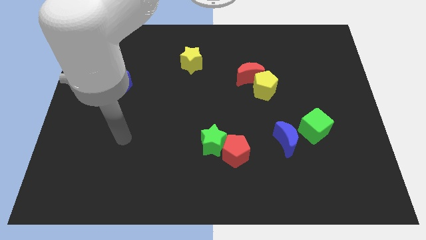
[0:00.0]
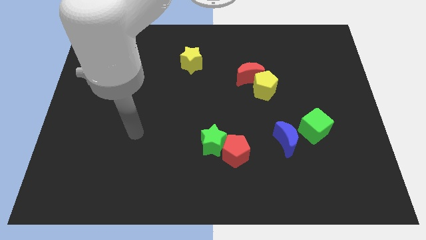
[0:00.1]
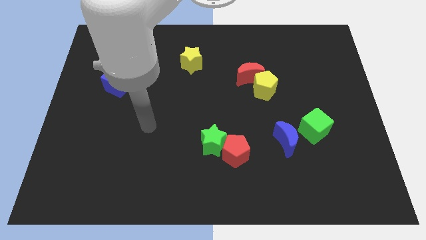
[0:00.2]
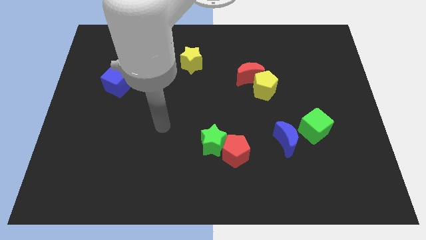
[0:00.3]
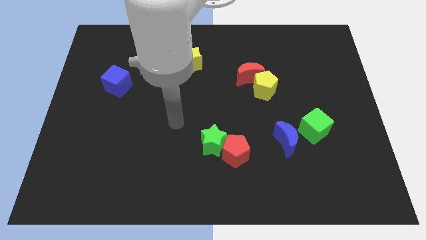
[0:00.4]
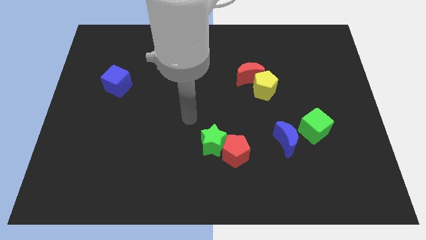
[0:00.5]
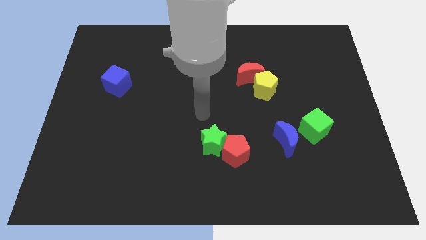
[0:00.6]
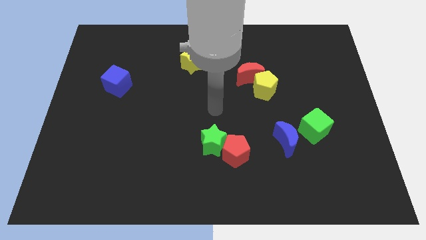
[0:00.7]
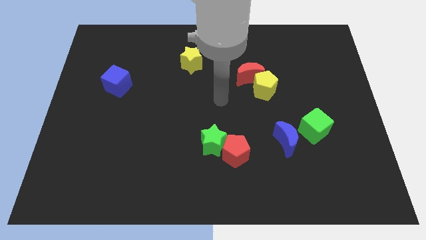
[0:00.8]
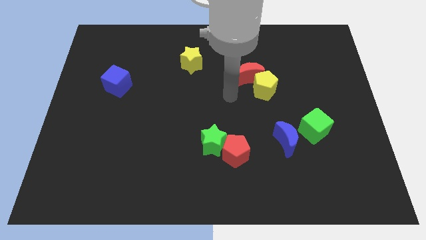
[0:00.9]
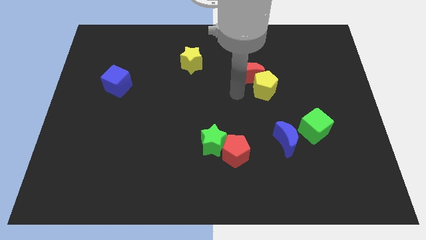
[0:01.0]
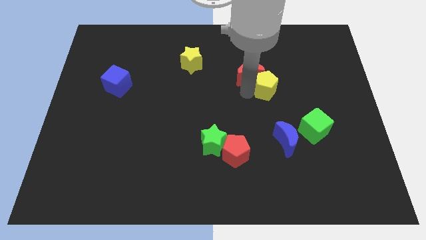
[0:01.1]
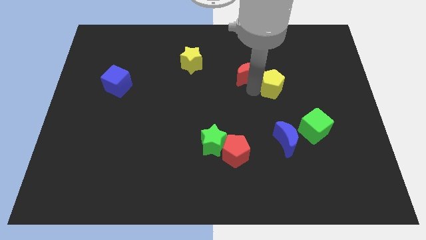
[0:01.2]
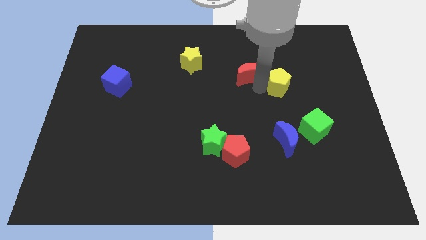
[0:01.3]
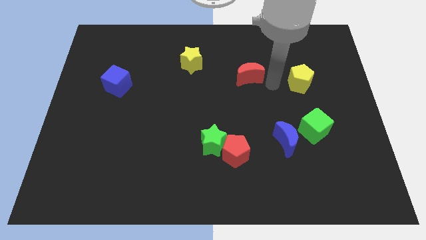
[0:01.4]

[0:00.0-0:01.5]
pull the red moon apart from the yellow pentagon

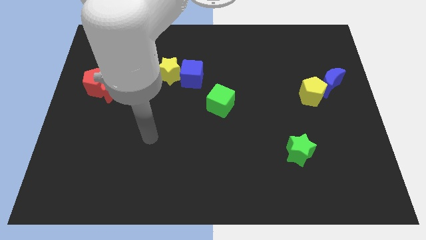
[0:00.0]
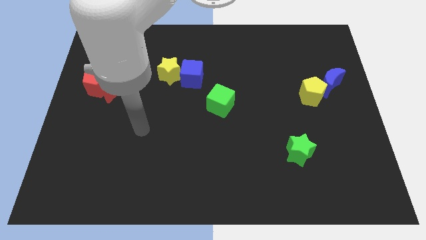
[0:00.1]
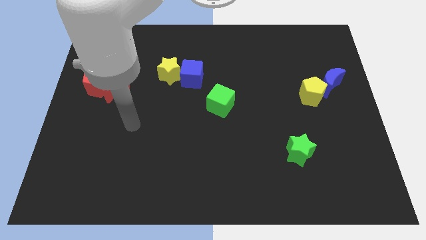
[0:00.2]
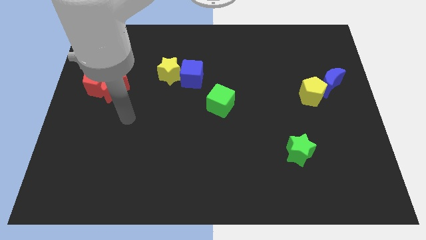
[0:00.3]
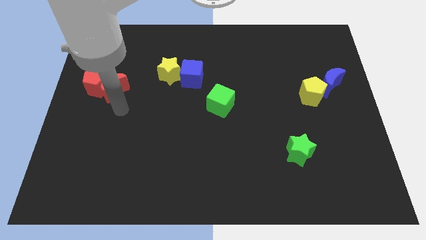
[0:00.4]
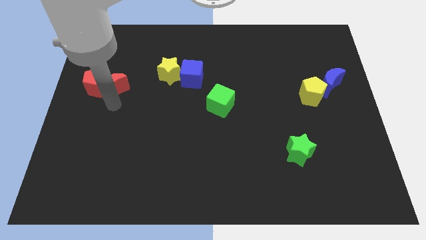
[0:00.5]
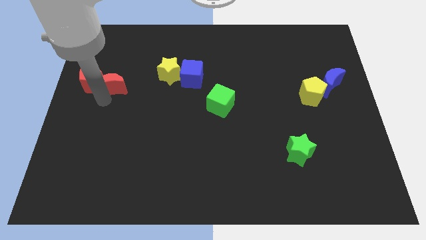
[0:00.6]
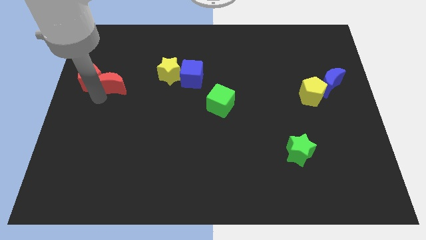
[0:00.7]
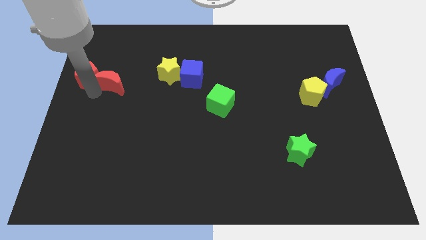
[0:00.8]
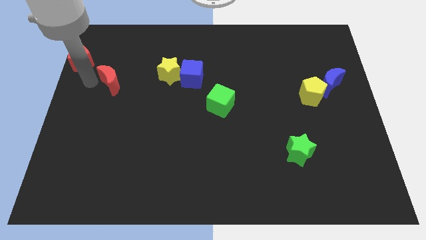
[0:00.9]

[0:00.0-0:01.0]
move the red moon away from the red pentagon

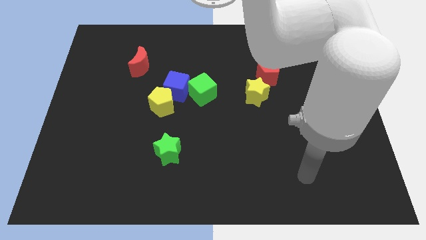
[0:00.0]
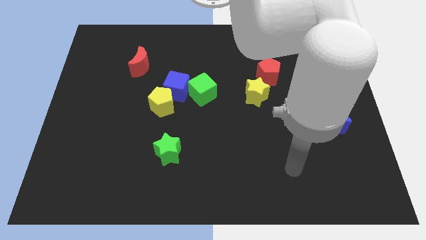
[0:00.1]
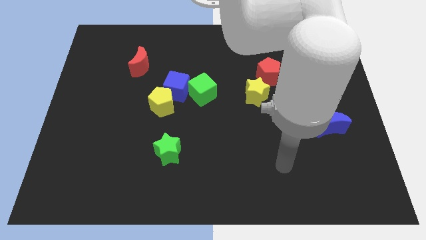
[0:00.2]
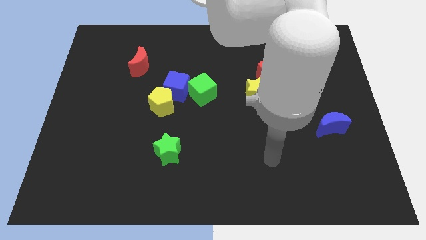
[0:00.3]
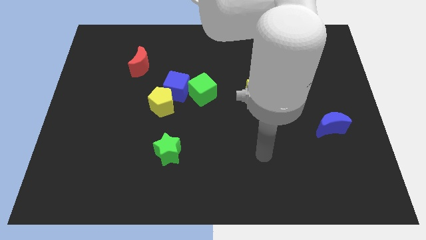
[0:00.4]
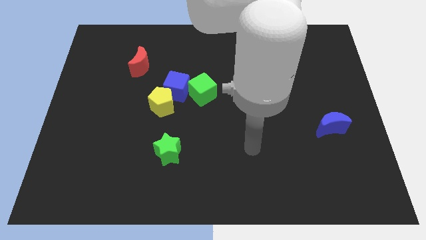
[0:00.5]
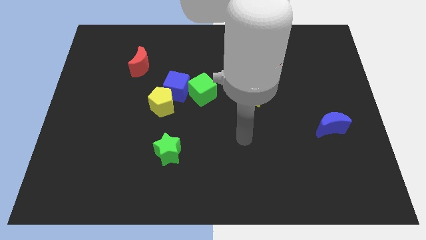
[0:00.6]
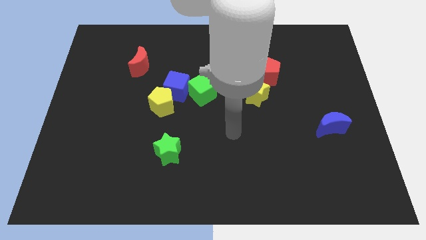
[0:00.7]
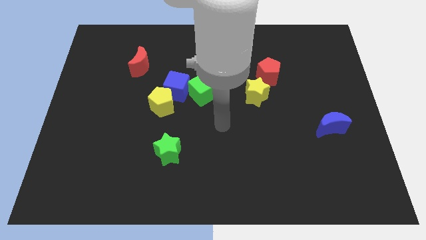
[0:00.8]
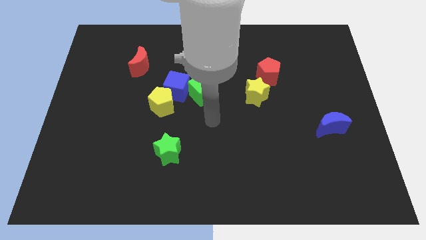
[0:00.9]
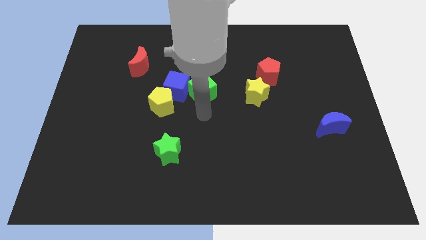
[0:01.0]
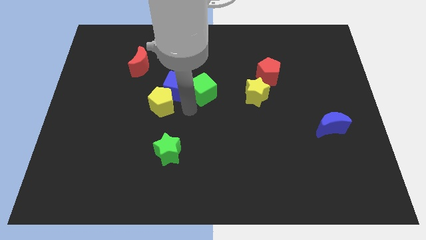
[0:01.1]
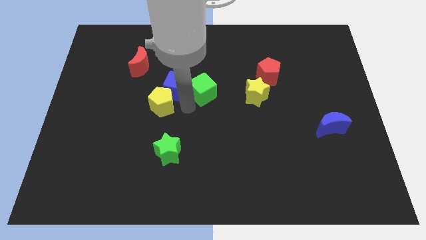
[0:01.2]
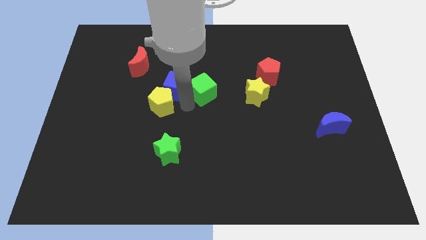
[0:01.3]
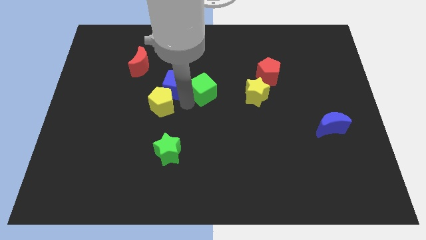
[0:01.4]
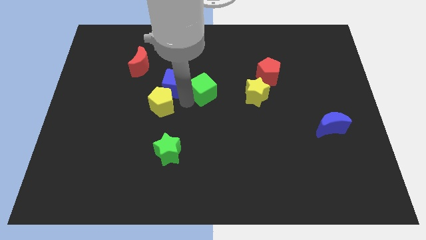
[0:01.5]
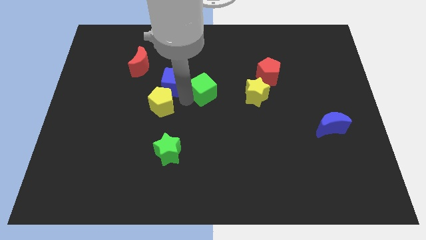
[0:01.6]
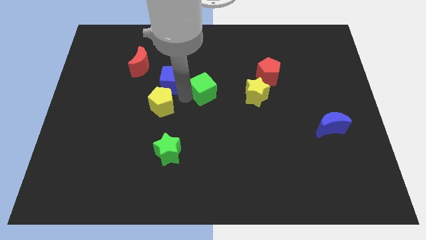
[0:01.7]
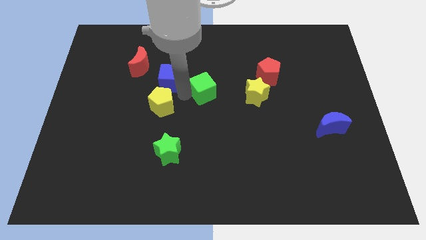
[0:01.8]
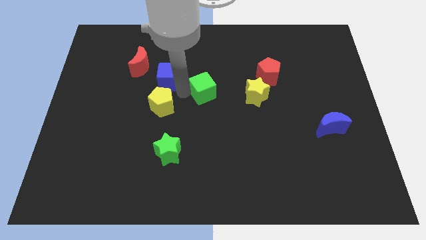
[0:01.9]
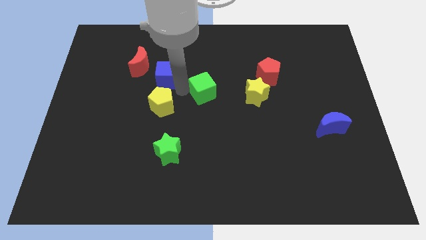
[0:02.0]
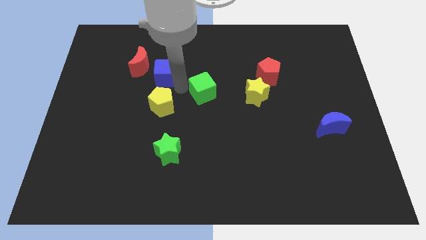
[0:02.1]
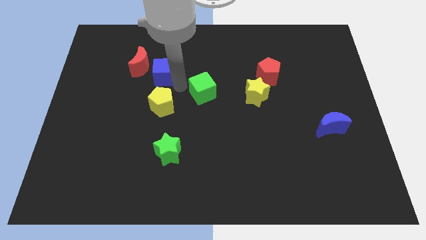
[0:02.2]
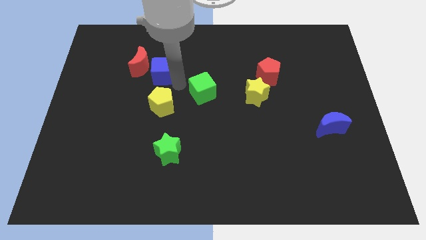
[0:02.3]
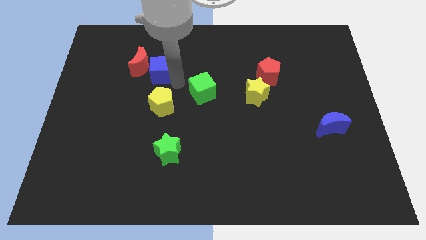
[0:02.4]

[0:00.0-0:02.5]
pull the blue cube apart from the yellow pentagon and green cube

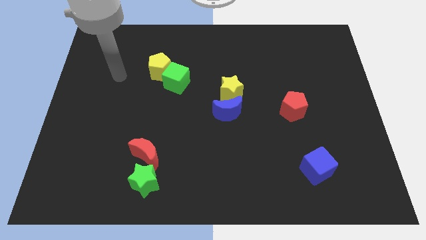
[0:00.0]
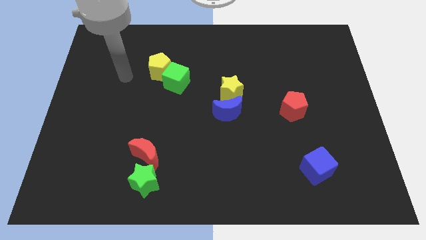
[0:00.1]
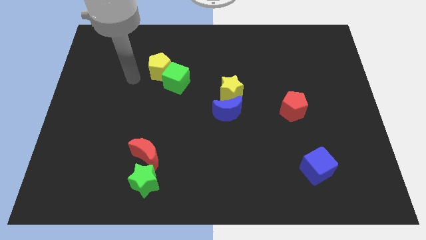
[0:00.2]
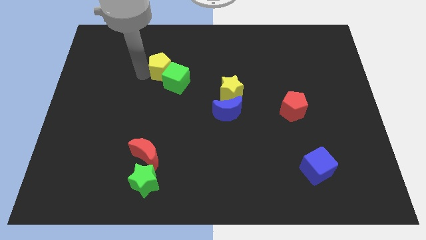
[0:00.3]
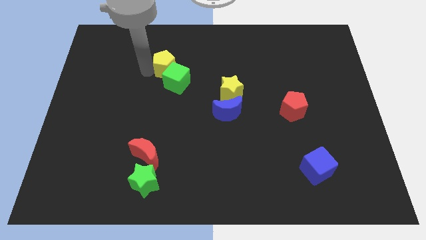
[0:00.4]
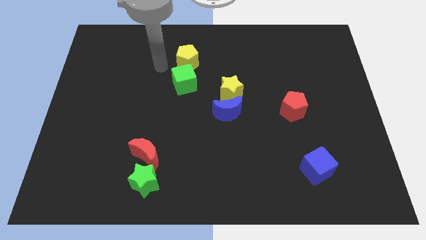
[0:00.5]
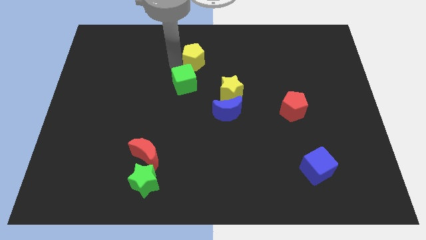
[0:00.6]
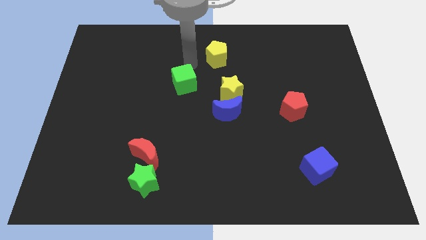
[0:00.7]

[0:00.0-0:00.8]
pull the green cube apart from the yellow pentagon

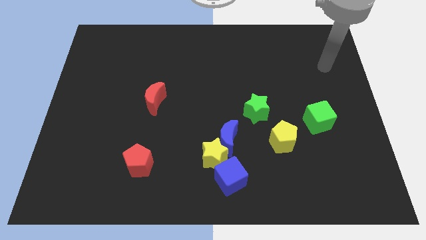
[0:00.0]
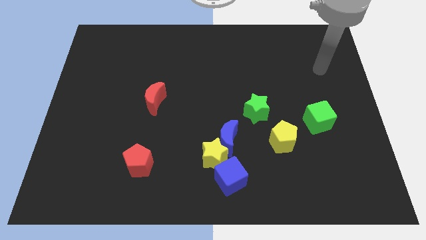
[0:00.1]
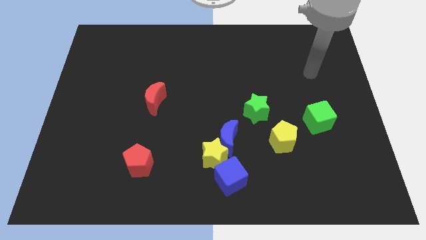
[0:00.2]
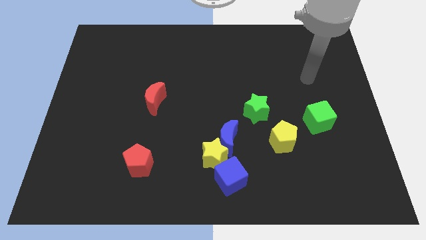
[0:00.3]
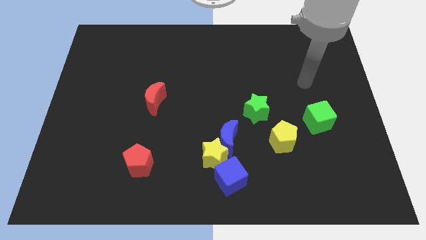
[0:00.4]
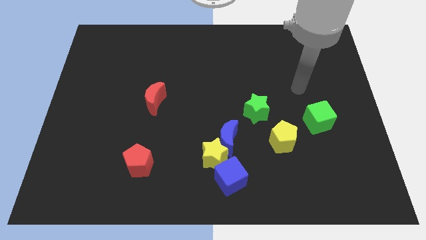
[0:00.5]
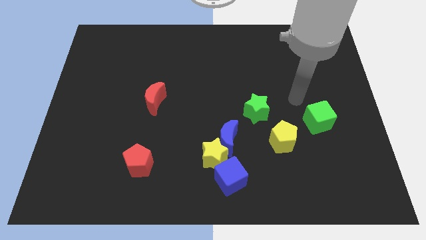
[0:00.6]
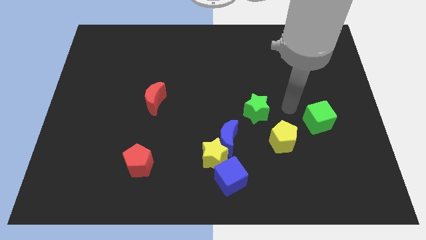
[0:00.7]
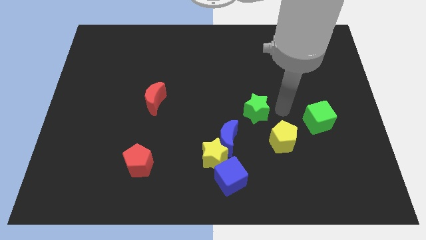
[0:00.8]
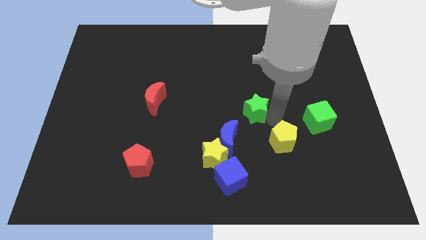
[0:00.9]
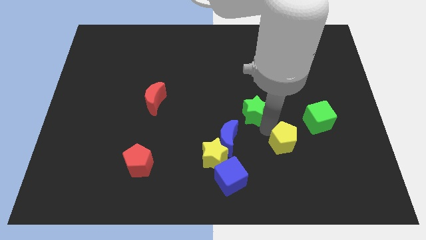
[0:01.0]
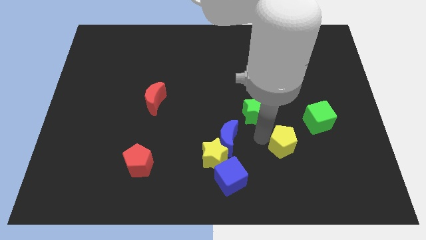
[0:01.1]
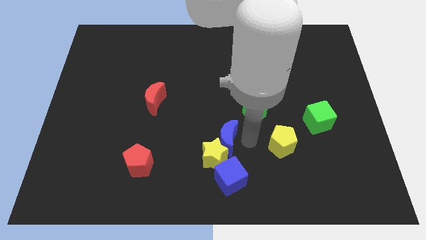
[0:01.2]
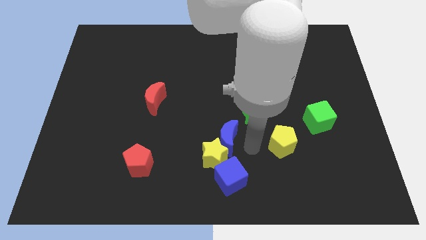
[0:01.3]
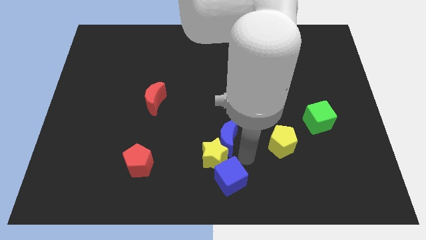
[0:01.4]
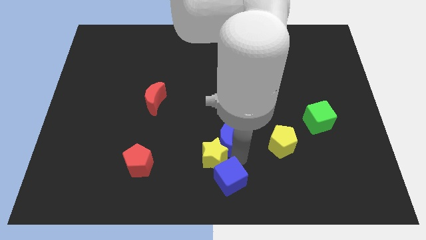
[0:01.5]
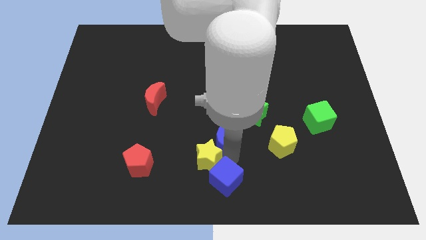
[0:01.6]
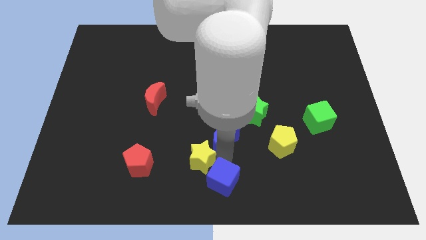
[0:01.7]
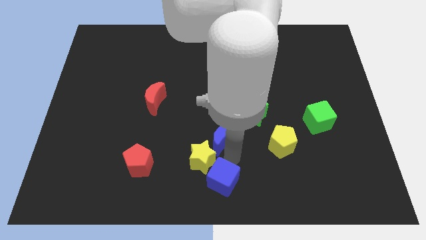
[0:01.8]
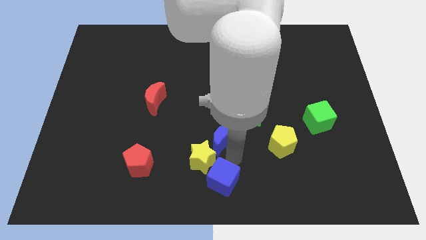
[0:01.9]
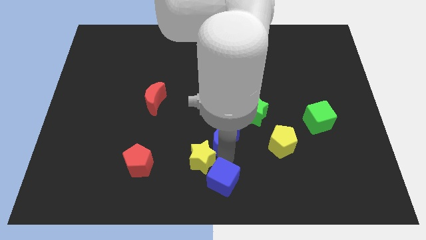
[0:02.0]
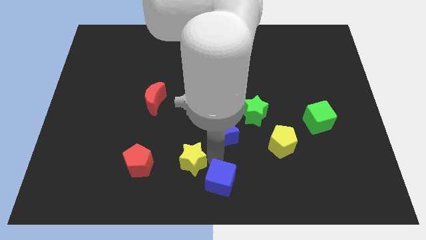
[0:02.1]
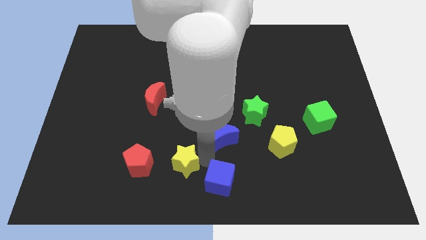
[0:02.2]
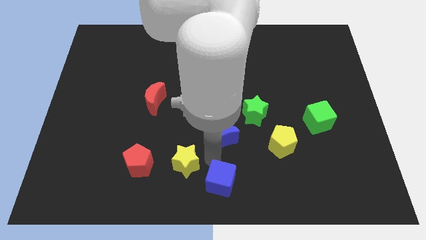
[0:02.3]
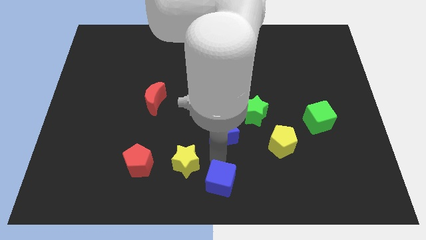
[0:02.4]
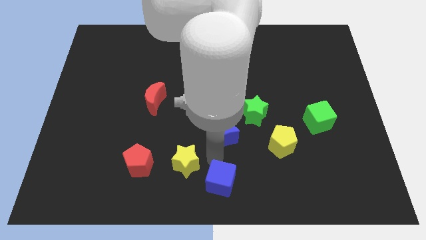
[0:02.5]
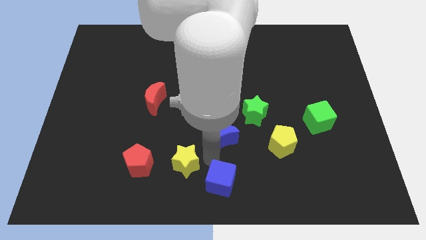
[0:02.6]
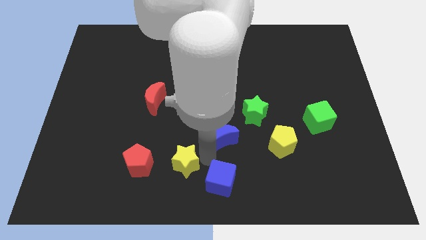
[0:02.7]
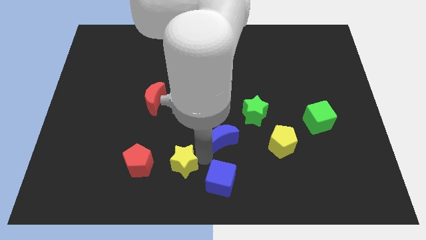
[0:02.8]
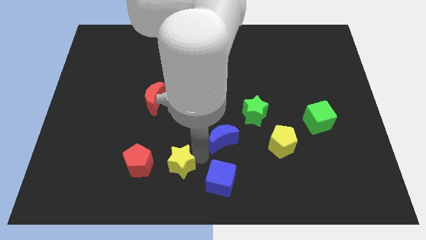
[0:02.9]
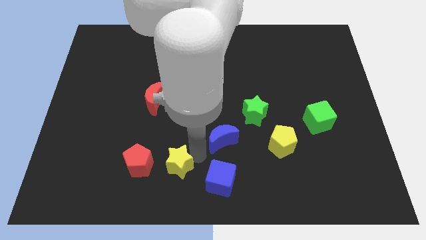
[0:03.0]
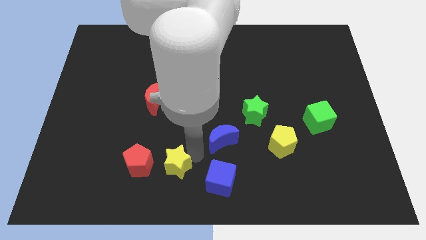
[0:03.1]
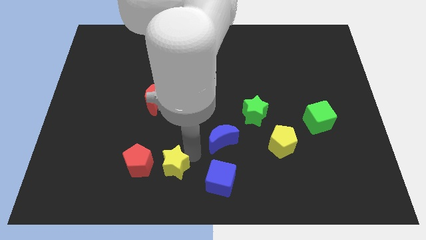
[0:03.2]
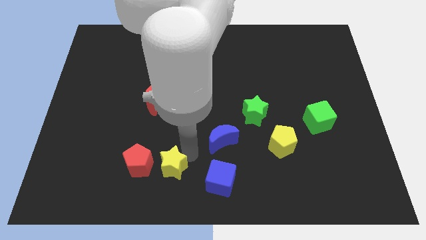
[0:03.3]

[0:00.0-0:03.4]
pull the yellow star apart from the blue moon and blue cube

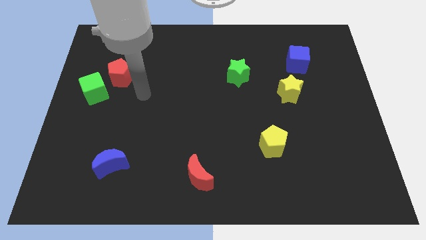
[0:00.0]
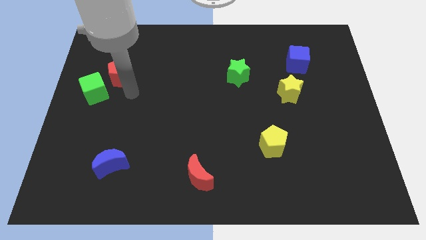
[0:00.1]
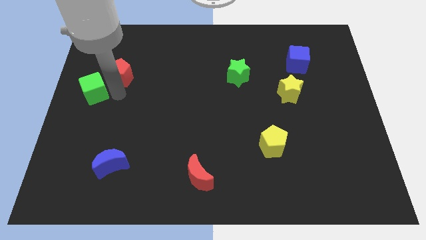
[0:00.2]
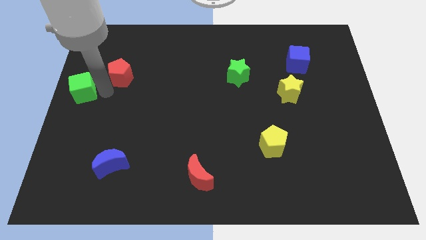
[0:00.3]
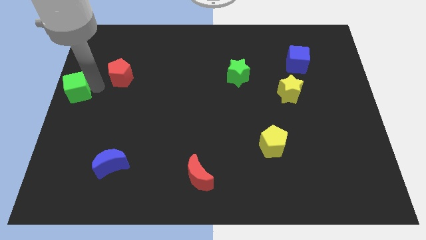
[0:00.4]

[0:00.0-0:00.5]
move the red pentagon away from the green cube
